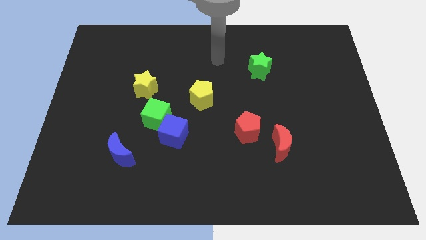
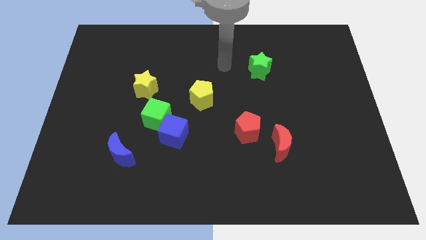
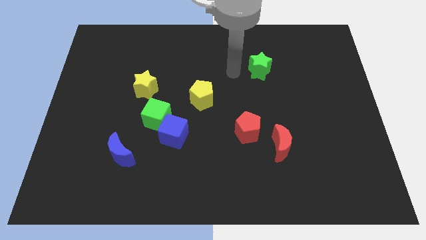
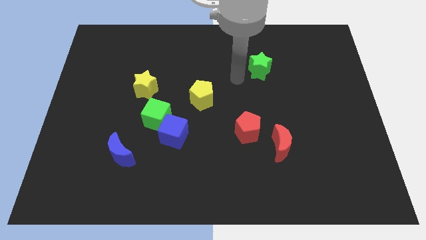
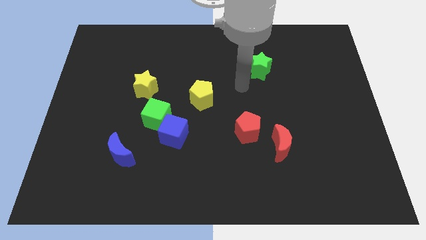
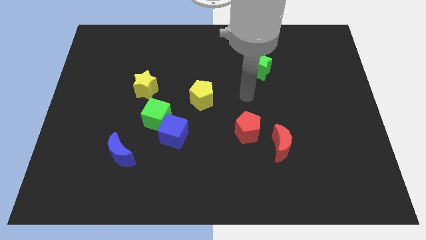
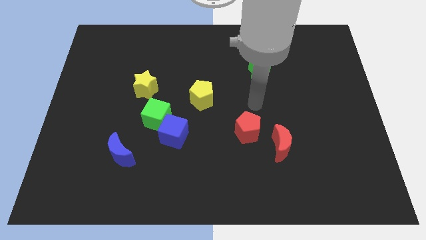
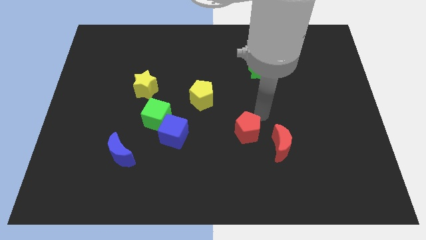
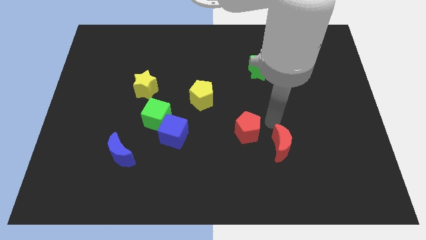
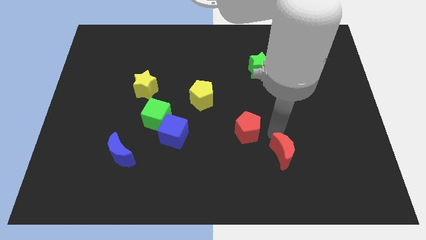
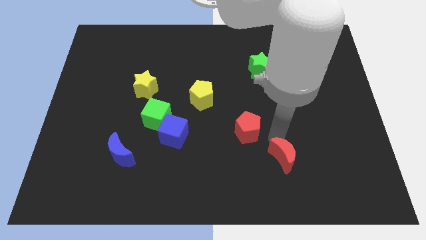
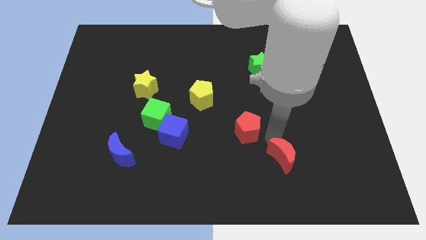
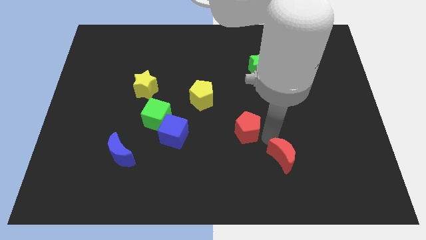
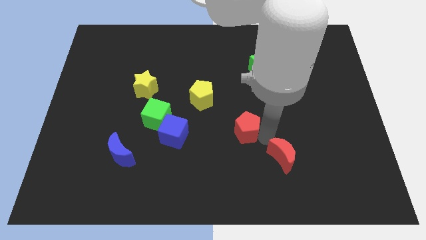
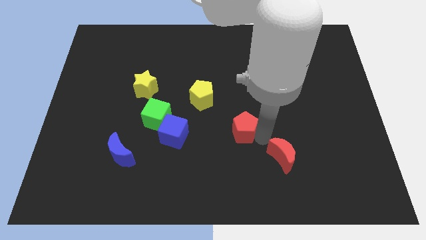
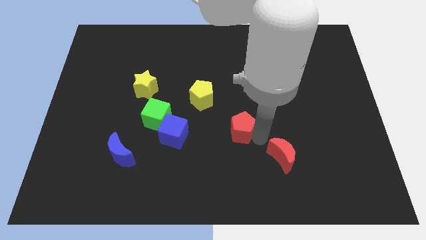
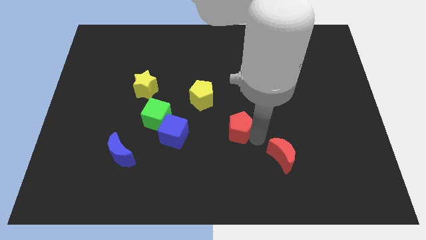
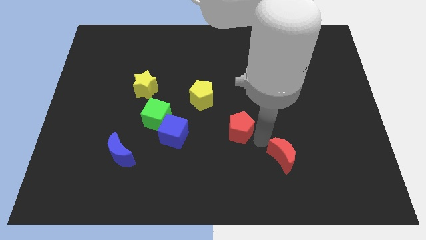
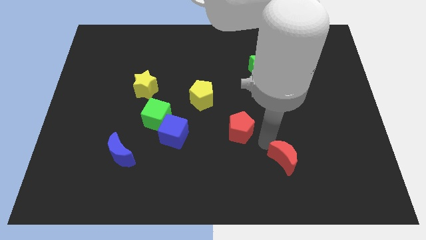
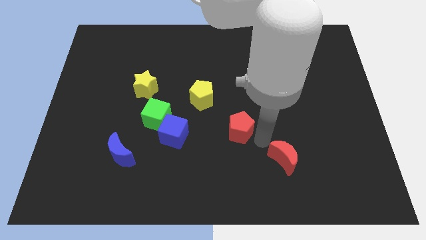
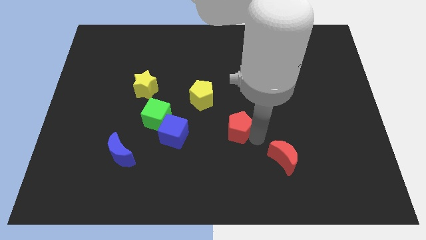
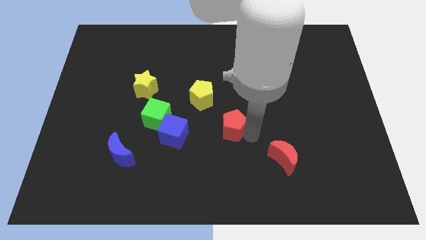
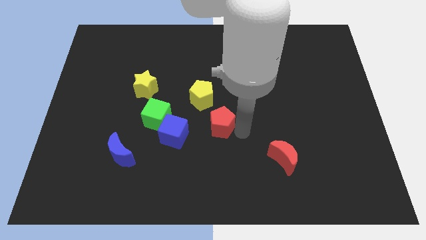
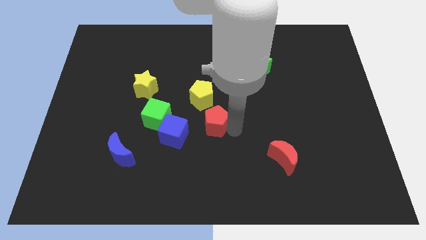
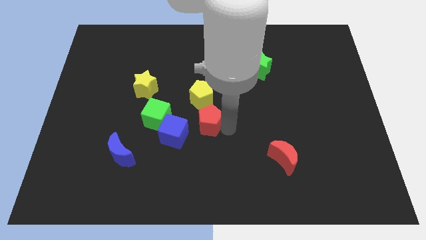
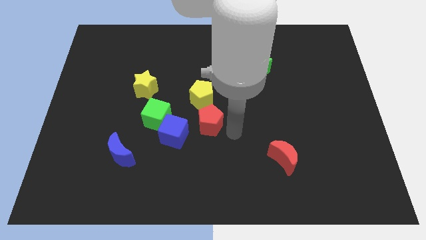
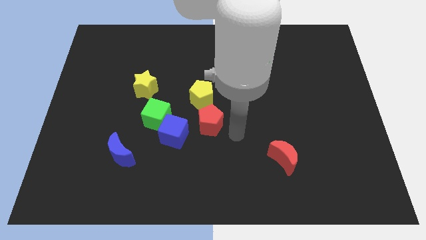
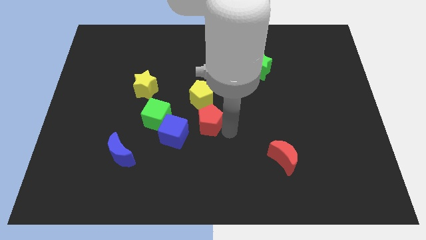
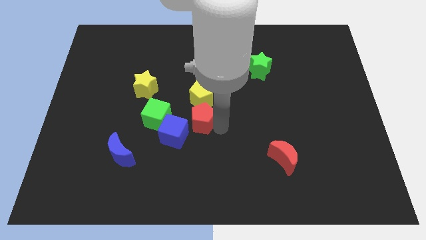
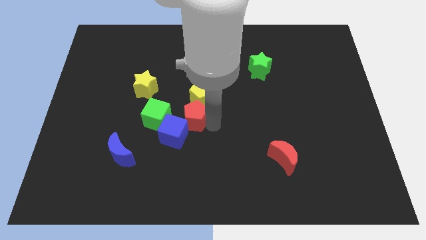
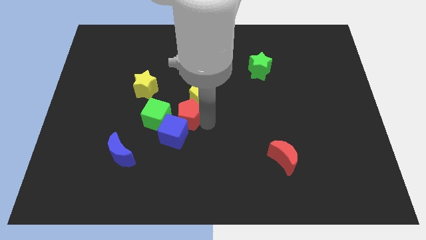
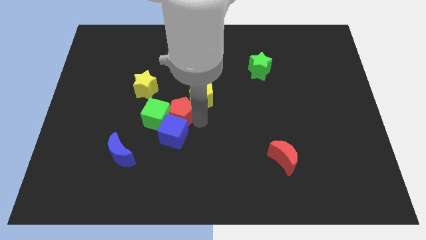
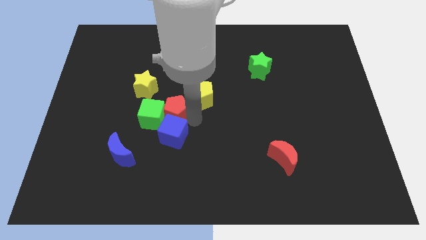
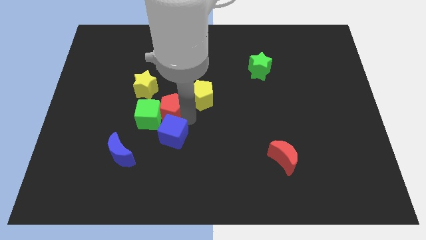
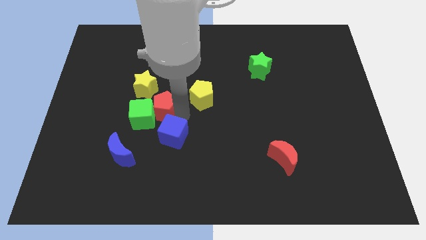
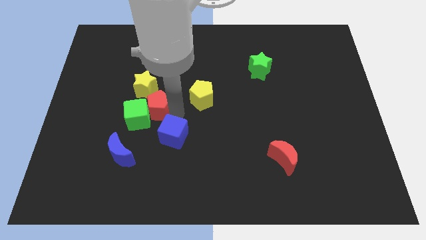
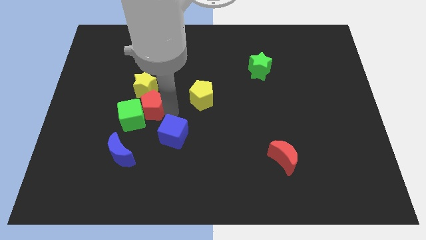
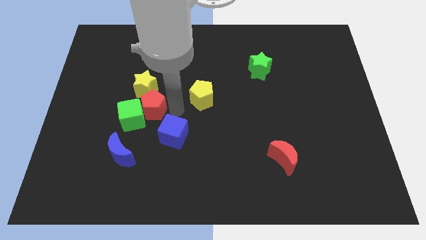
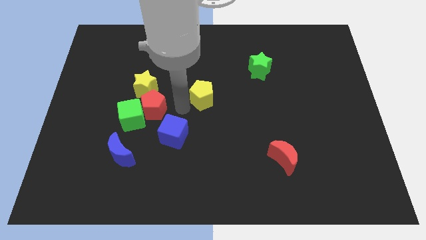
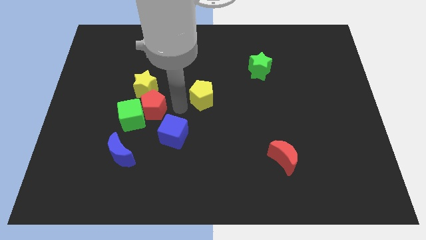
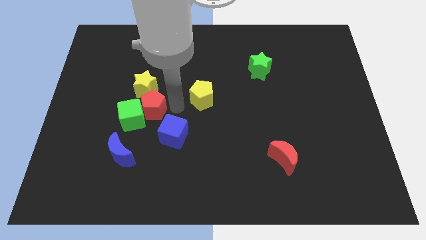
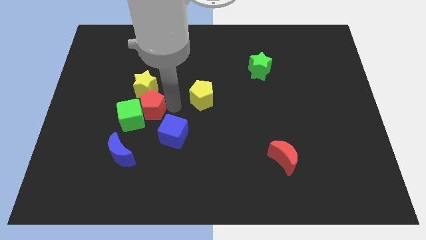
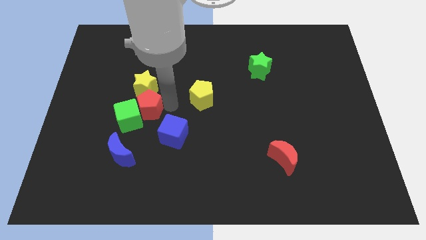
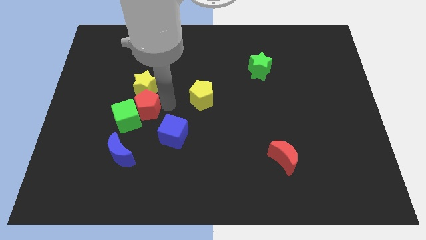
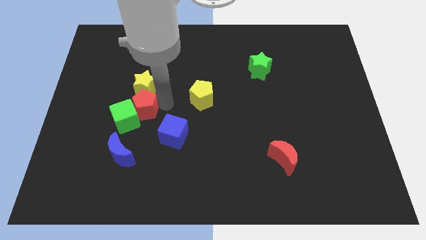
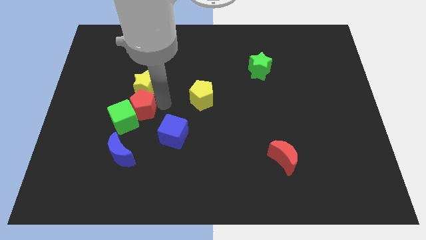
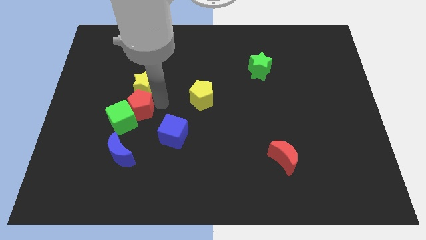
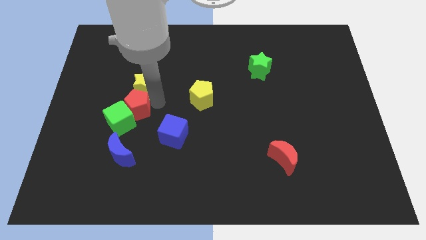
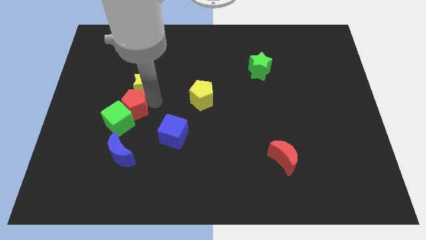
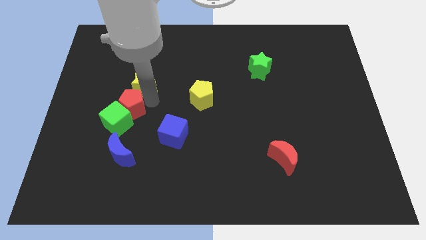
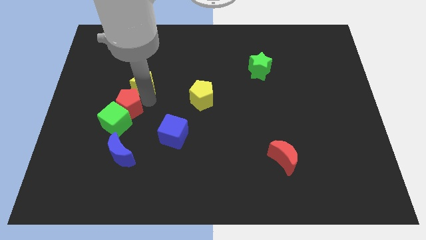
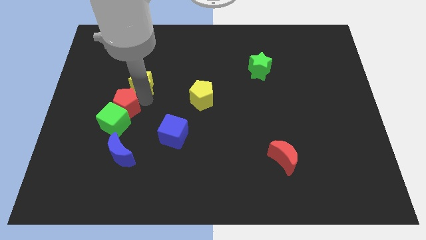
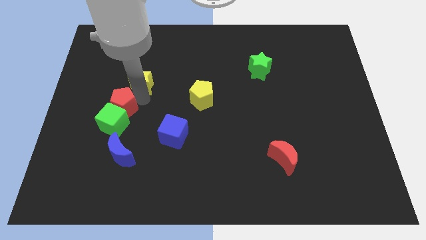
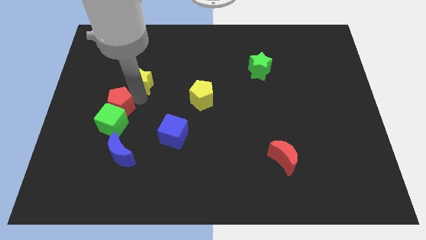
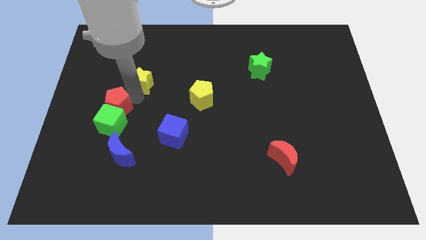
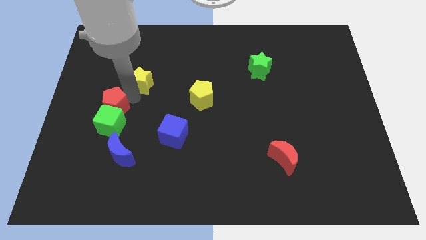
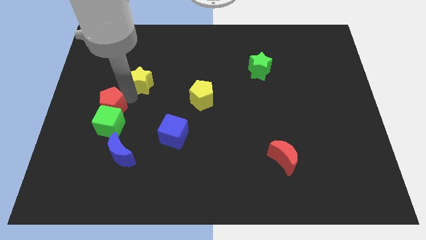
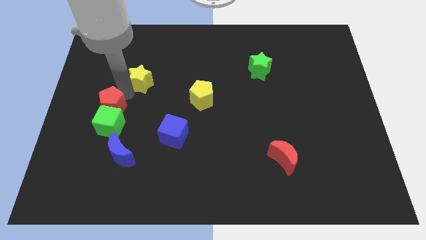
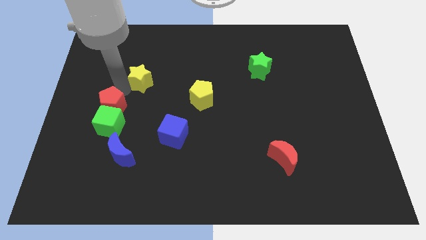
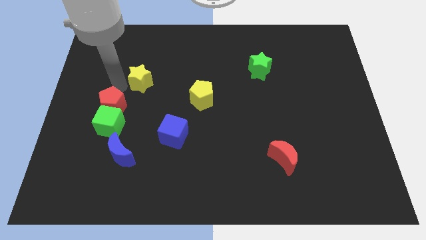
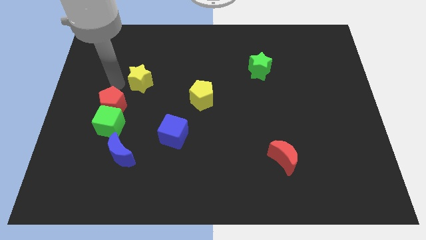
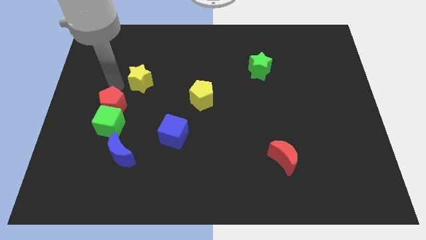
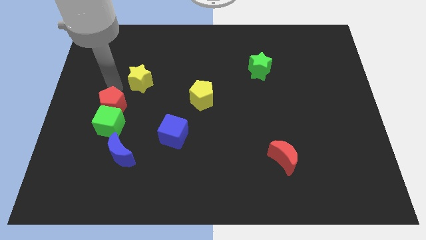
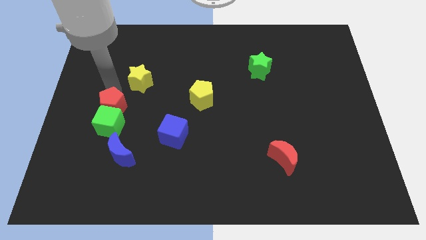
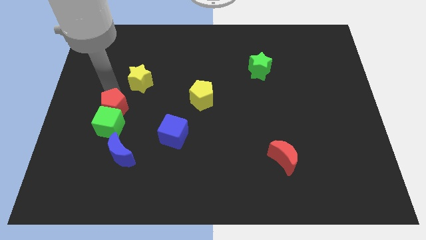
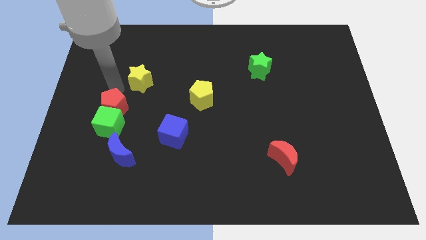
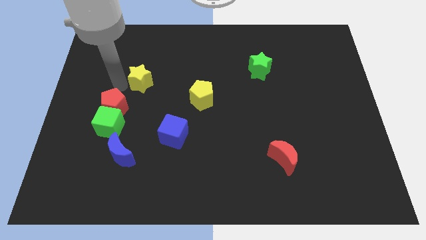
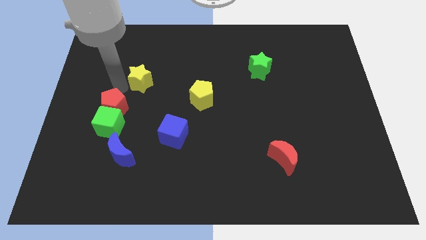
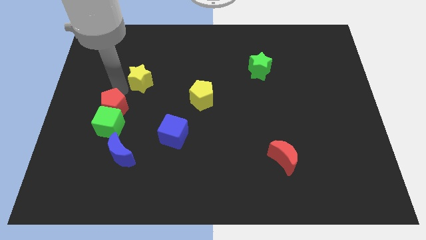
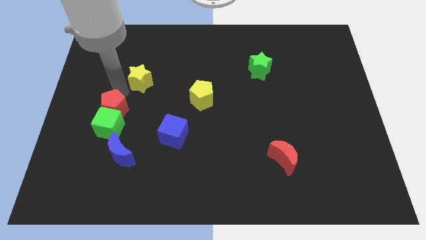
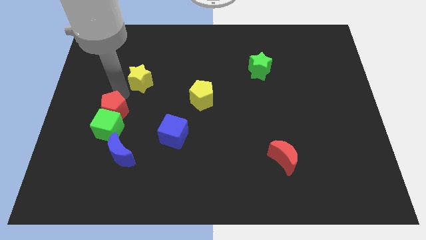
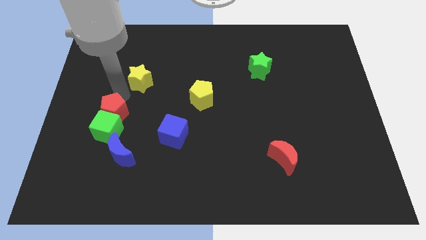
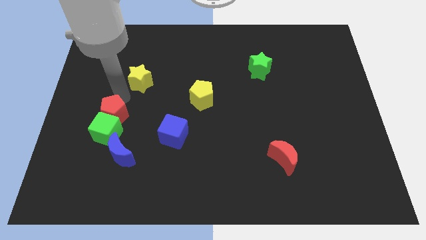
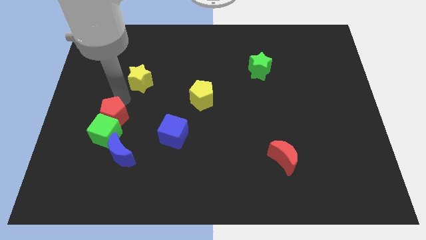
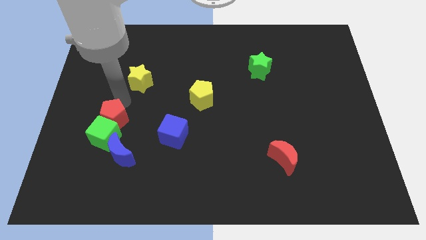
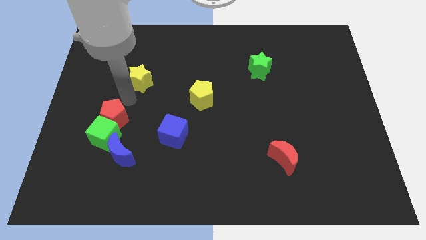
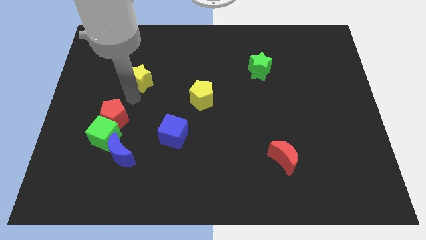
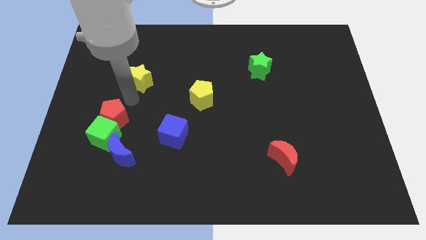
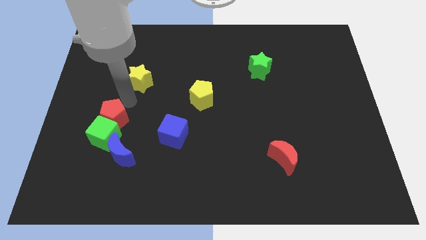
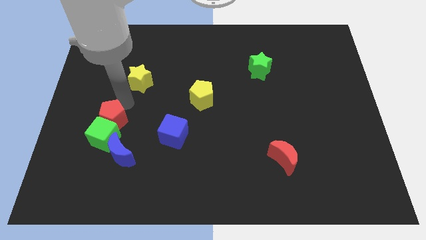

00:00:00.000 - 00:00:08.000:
move the red pentagon diagonally up and to the left of the blue moon
